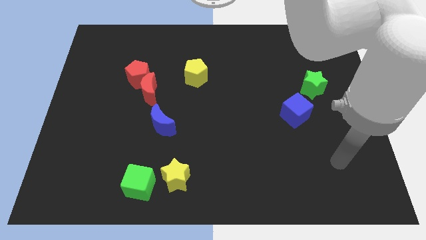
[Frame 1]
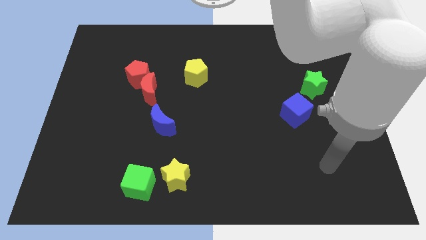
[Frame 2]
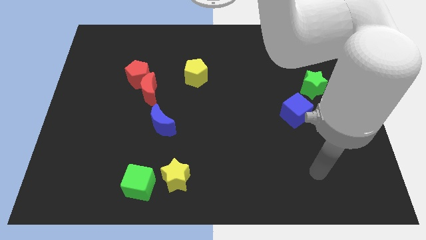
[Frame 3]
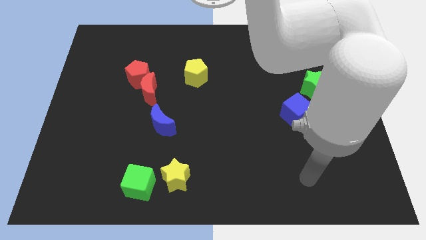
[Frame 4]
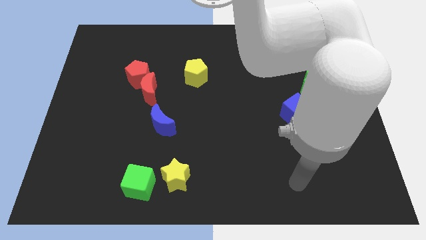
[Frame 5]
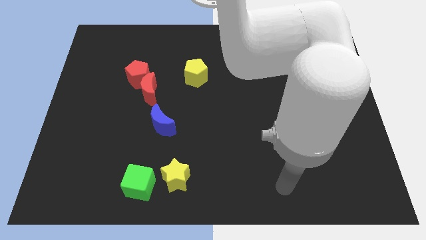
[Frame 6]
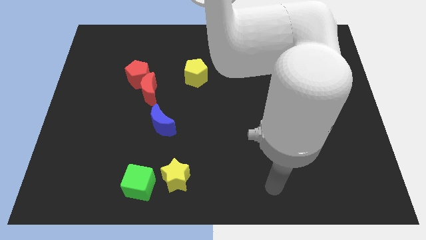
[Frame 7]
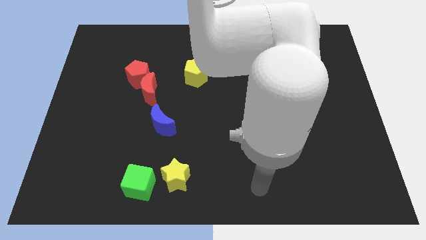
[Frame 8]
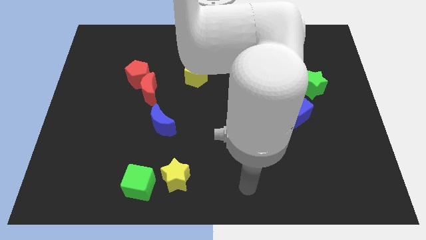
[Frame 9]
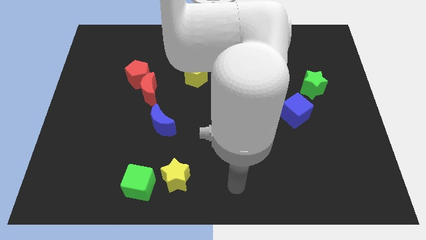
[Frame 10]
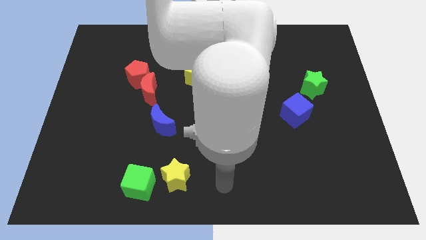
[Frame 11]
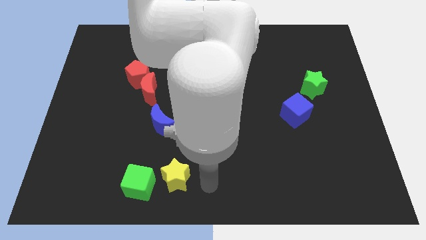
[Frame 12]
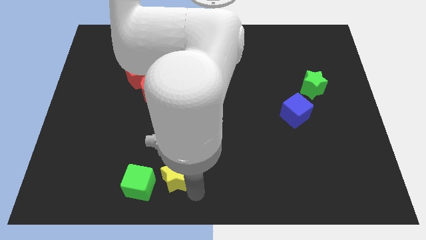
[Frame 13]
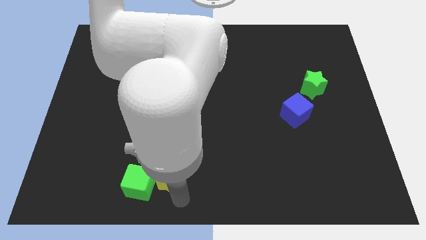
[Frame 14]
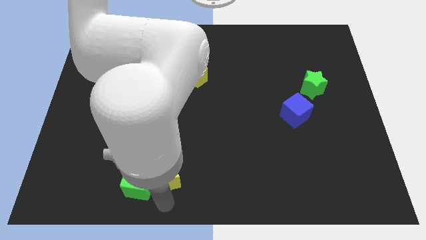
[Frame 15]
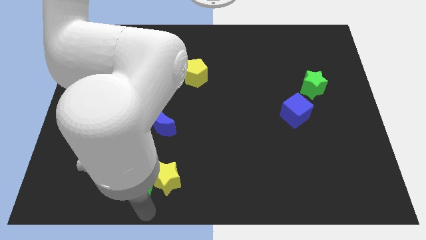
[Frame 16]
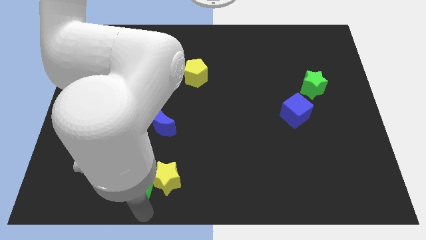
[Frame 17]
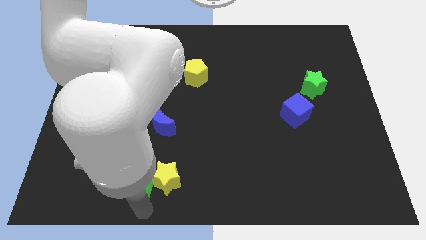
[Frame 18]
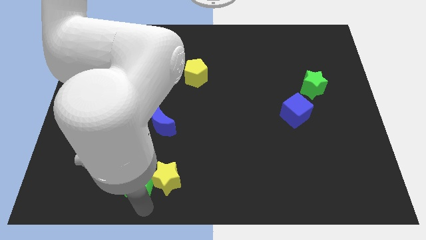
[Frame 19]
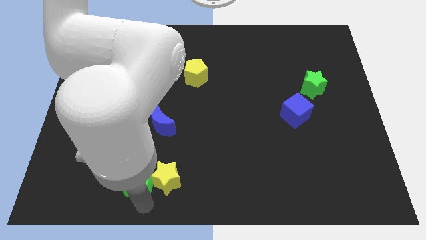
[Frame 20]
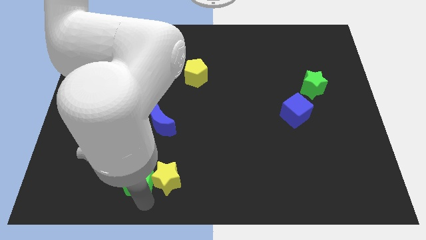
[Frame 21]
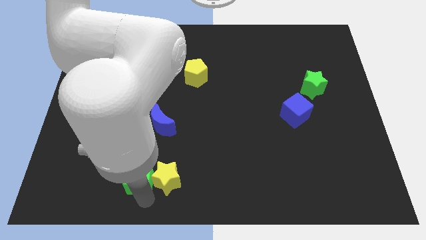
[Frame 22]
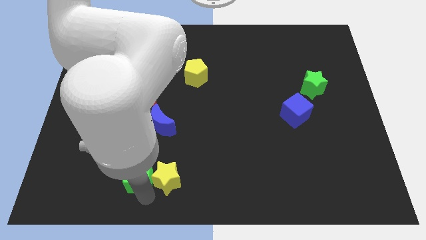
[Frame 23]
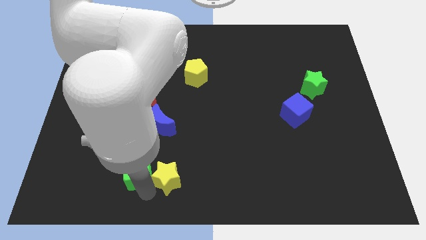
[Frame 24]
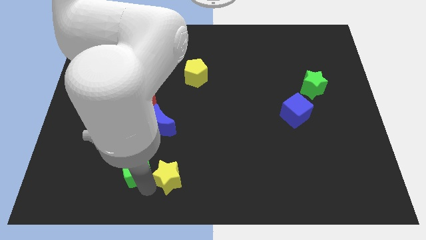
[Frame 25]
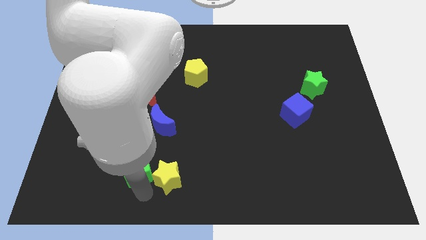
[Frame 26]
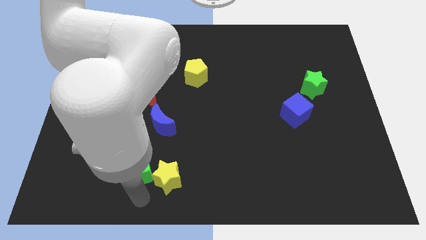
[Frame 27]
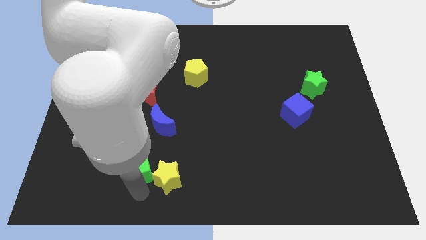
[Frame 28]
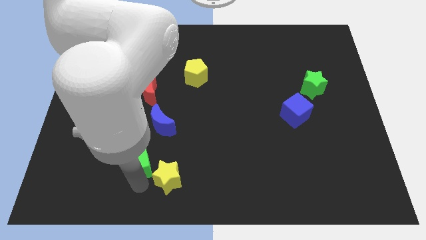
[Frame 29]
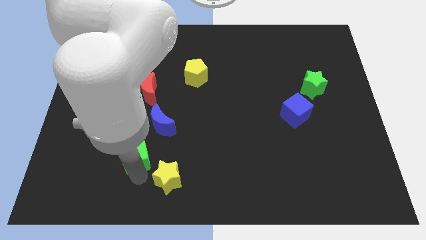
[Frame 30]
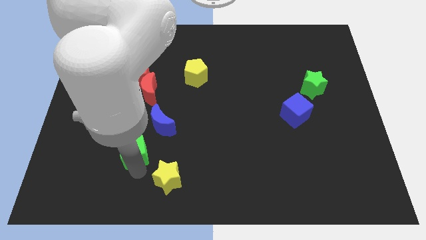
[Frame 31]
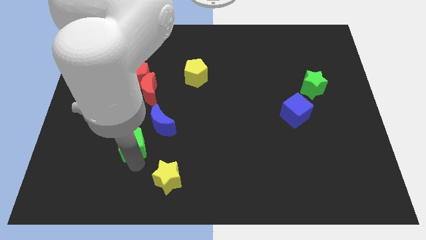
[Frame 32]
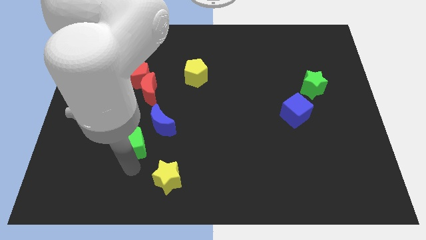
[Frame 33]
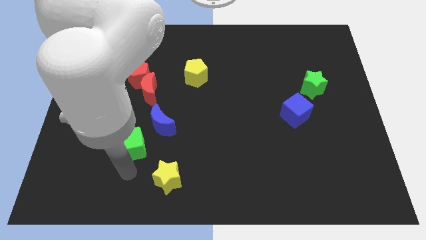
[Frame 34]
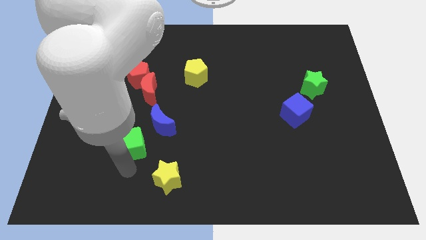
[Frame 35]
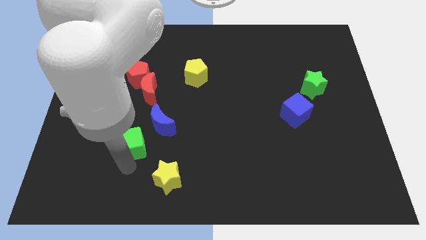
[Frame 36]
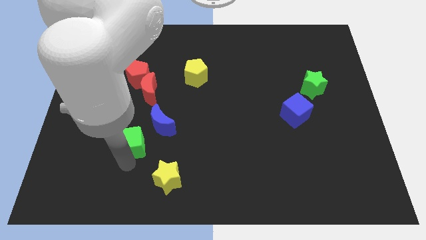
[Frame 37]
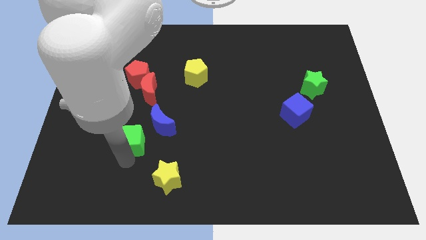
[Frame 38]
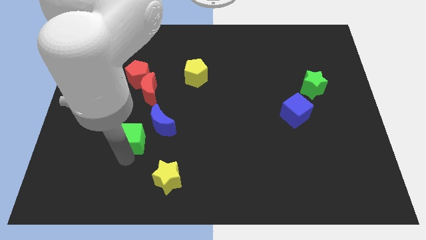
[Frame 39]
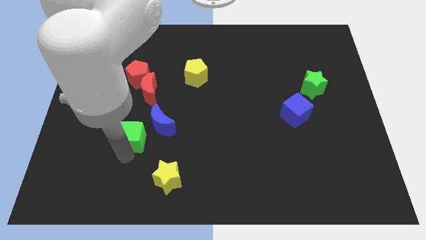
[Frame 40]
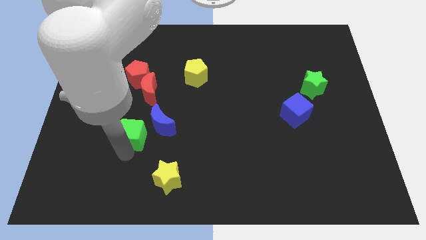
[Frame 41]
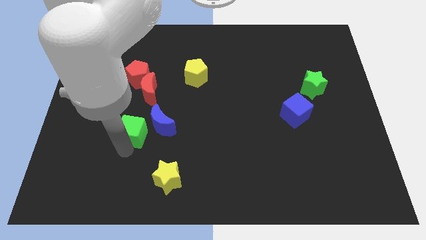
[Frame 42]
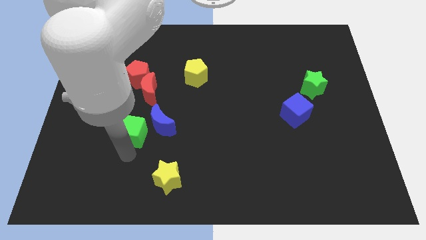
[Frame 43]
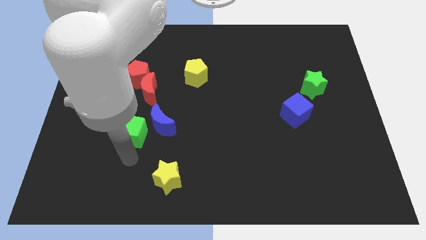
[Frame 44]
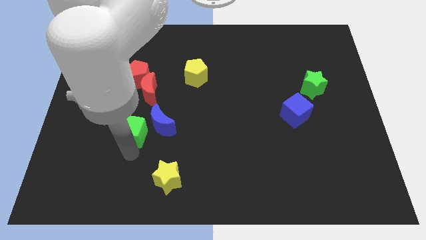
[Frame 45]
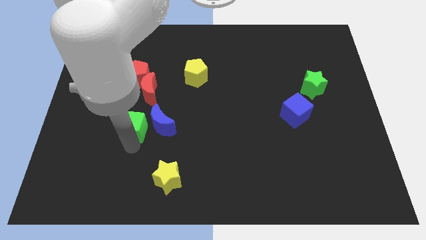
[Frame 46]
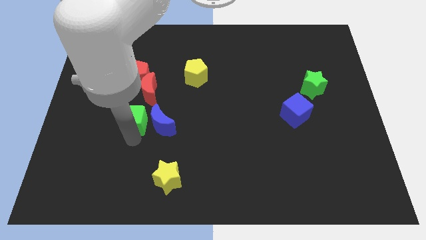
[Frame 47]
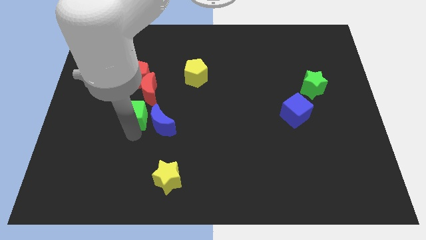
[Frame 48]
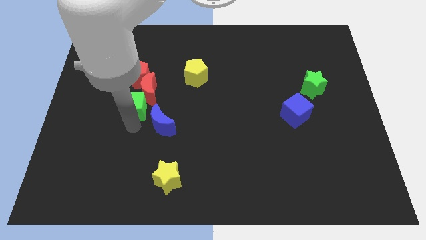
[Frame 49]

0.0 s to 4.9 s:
move the green cube towards the red moon

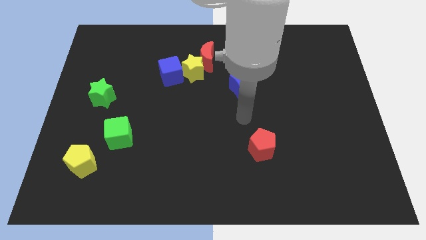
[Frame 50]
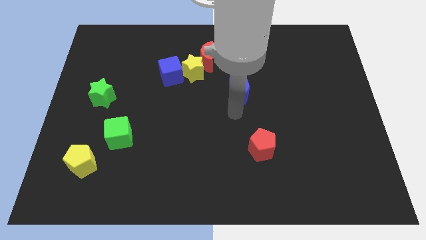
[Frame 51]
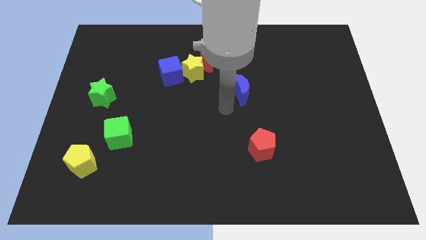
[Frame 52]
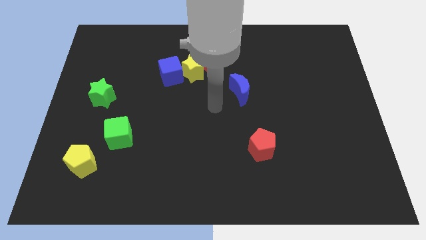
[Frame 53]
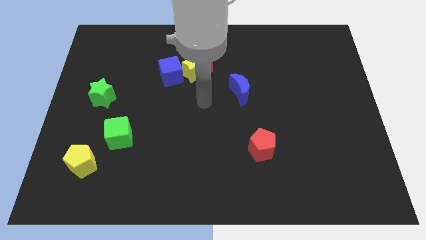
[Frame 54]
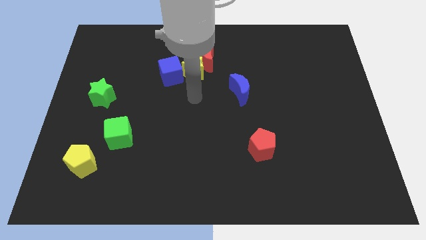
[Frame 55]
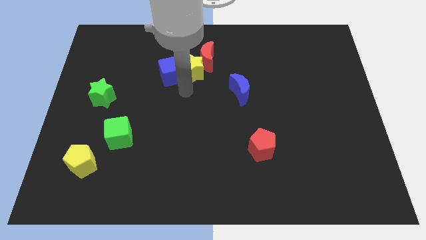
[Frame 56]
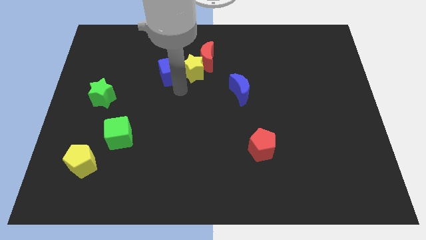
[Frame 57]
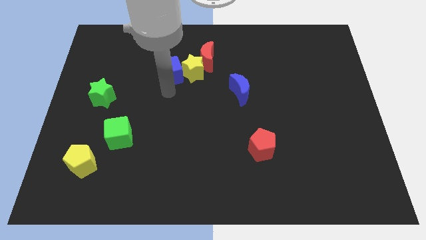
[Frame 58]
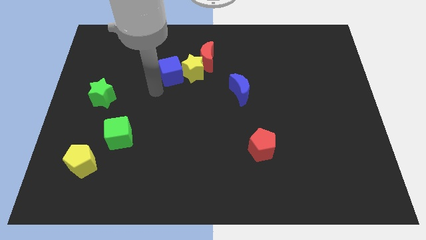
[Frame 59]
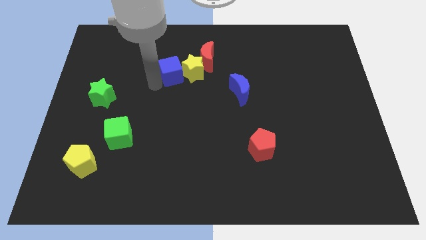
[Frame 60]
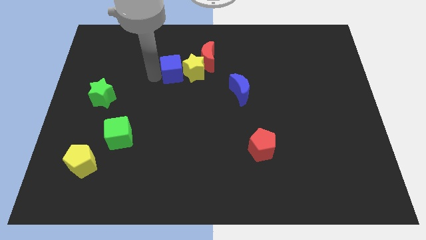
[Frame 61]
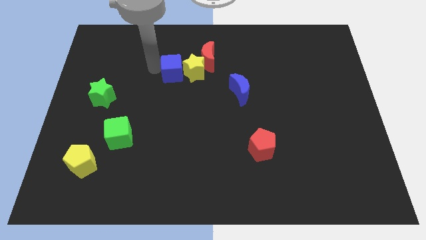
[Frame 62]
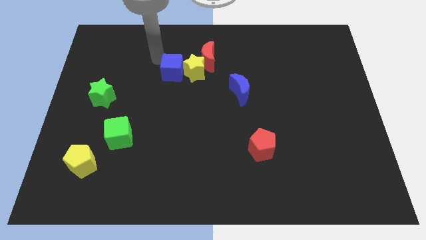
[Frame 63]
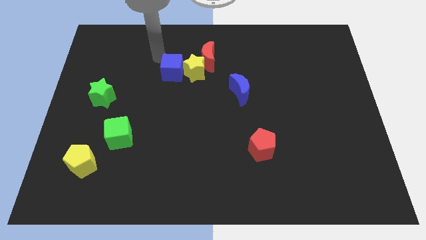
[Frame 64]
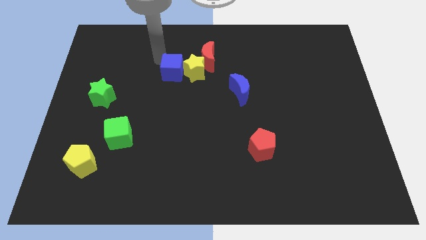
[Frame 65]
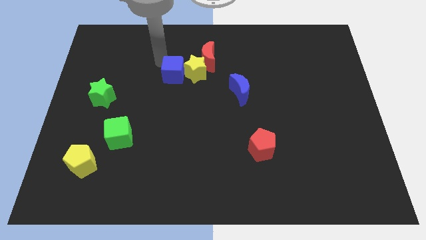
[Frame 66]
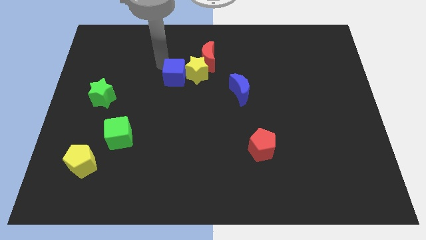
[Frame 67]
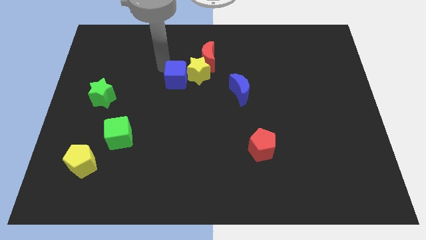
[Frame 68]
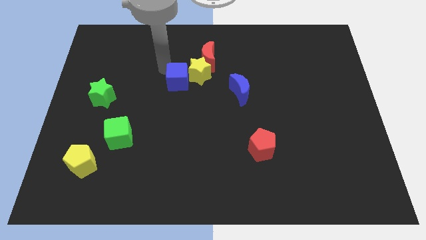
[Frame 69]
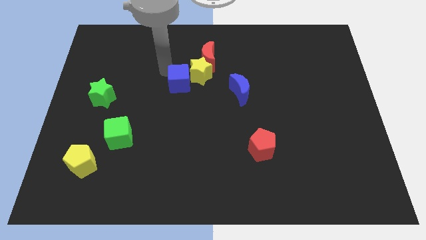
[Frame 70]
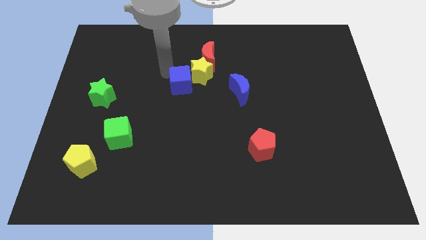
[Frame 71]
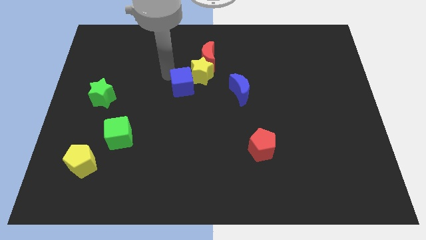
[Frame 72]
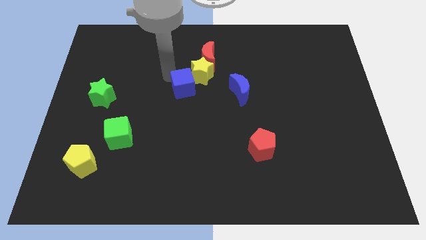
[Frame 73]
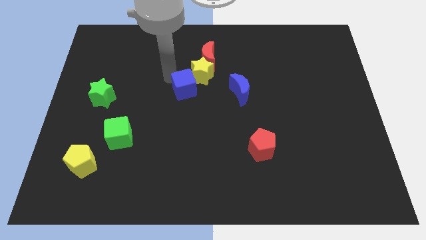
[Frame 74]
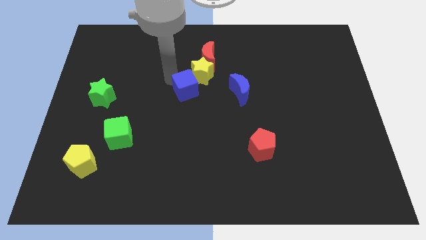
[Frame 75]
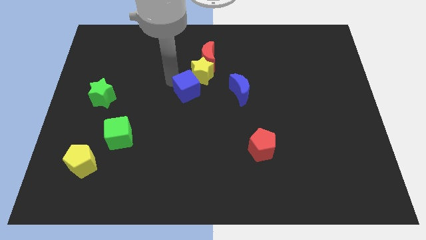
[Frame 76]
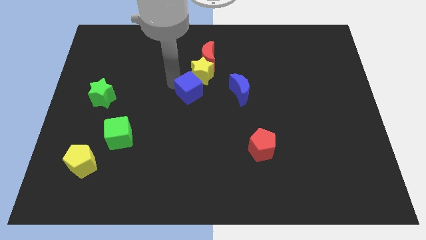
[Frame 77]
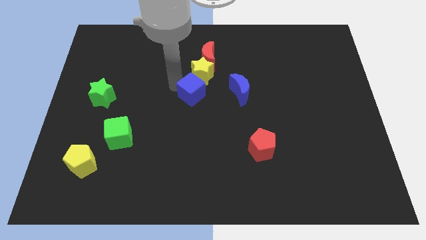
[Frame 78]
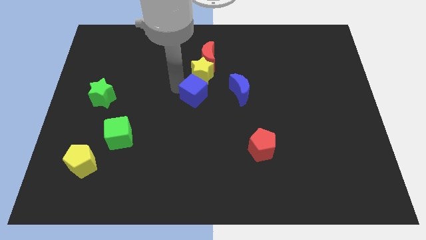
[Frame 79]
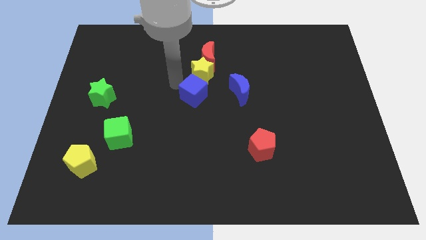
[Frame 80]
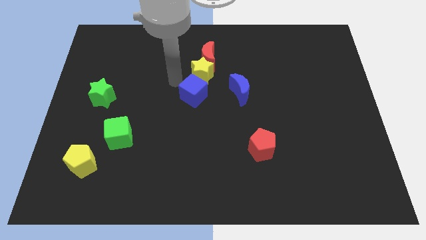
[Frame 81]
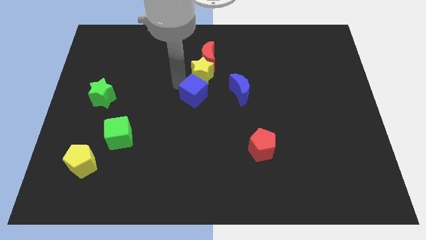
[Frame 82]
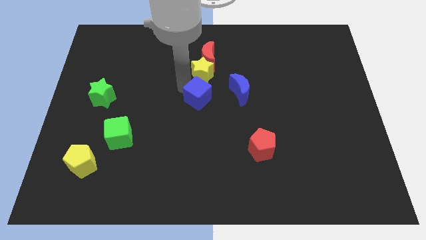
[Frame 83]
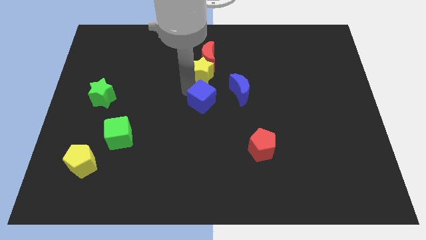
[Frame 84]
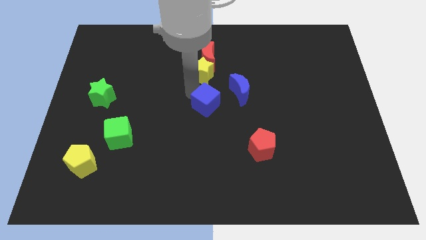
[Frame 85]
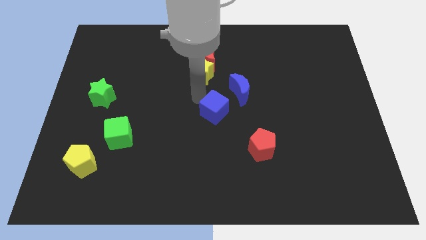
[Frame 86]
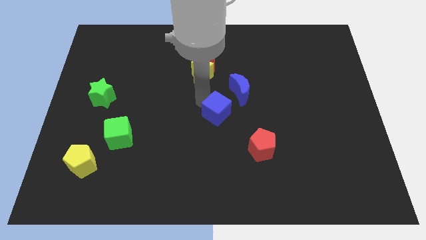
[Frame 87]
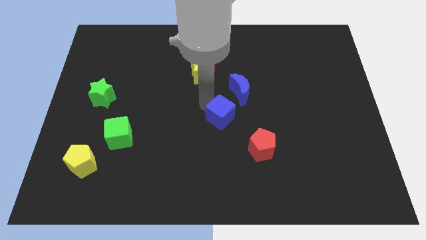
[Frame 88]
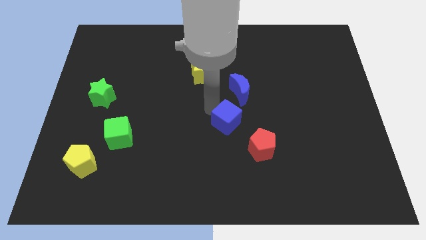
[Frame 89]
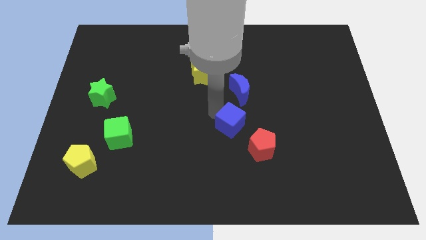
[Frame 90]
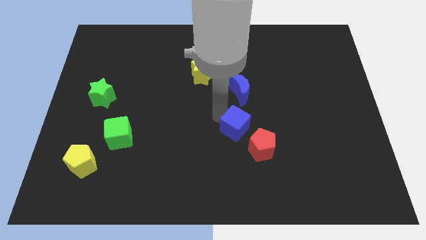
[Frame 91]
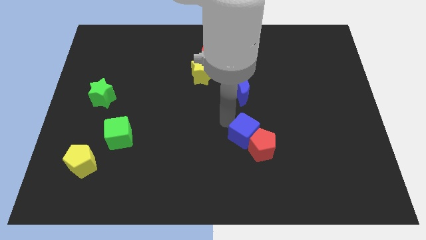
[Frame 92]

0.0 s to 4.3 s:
put the blue cube next to the red pentagon
